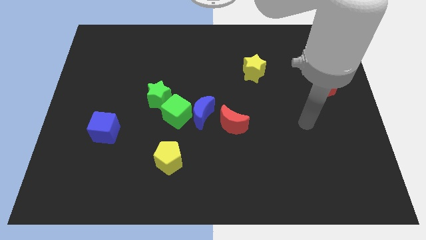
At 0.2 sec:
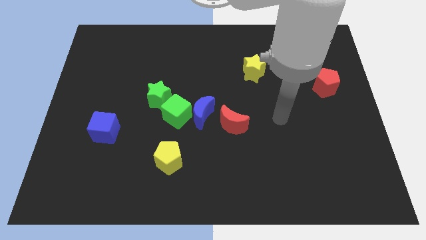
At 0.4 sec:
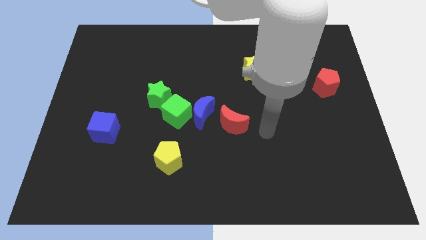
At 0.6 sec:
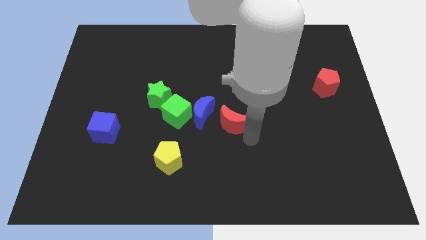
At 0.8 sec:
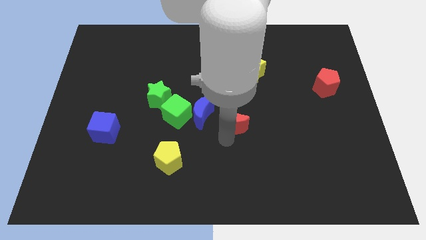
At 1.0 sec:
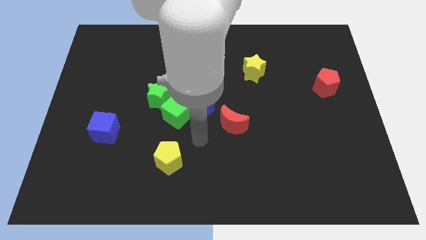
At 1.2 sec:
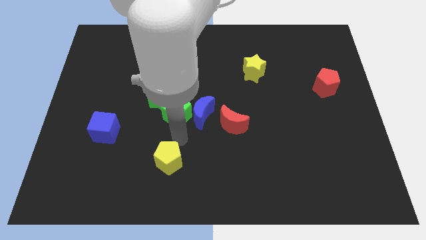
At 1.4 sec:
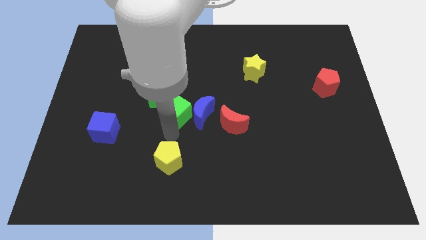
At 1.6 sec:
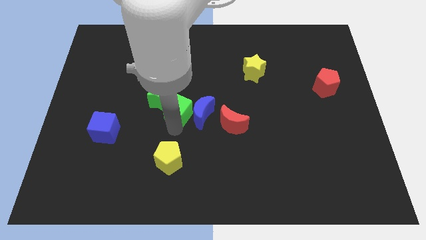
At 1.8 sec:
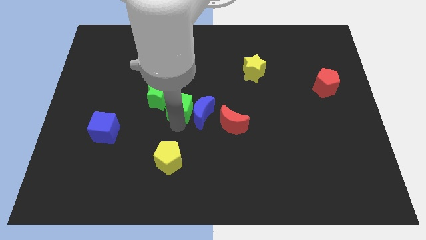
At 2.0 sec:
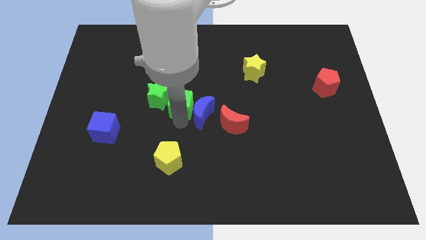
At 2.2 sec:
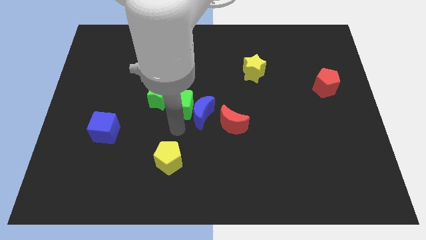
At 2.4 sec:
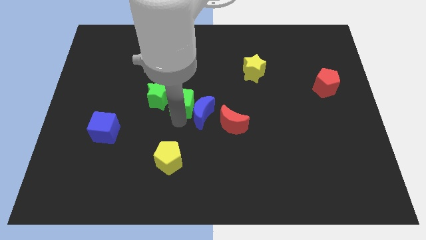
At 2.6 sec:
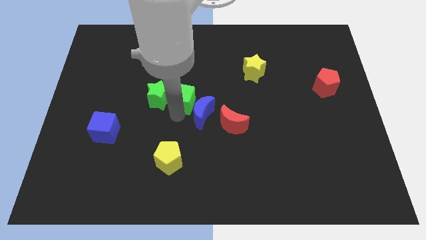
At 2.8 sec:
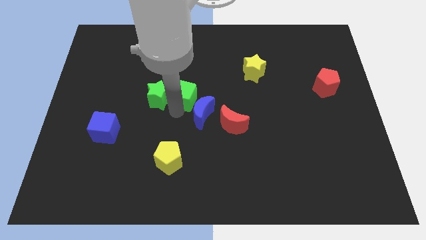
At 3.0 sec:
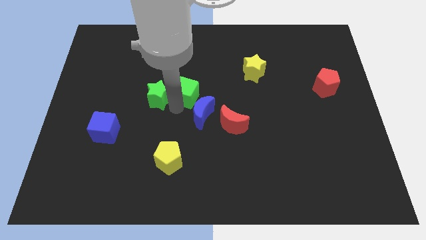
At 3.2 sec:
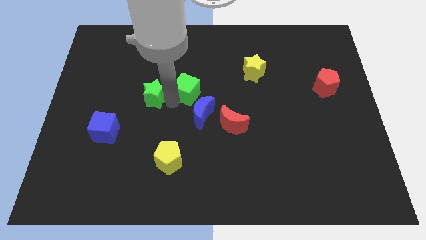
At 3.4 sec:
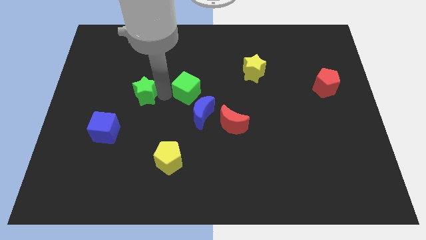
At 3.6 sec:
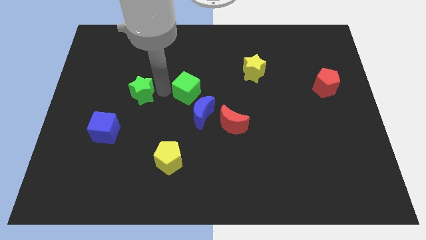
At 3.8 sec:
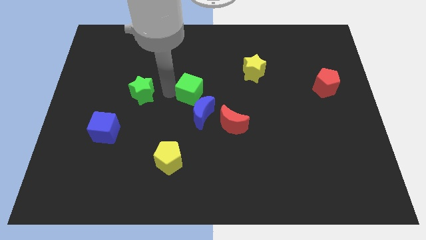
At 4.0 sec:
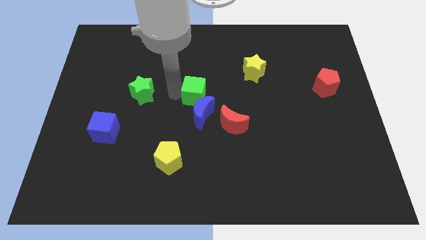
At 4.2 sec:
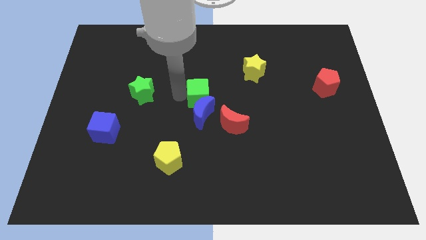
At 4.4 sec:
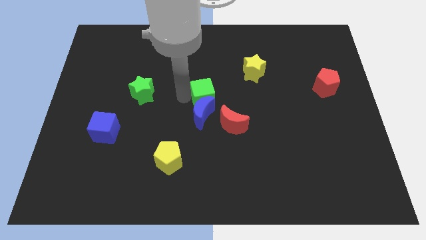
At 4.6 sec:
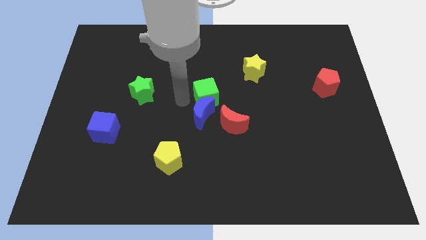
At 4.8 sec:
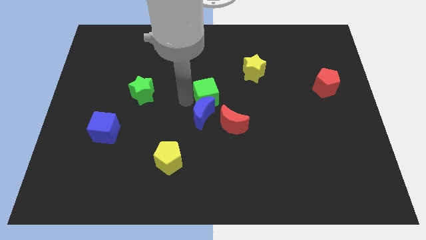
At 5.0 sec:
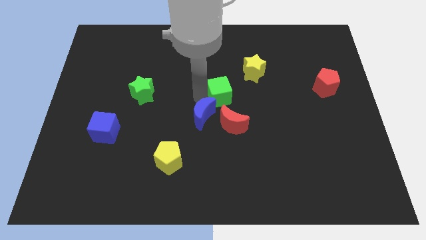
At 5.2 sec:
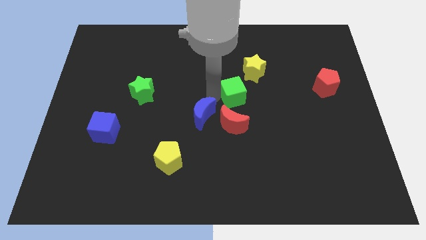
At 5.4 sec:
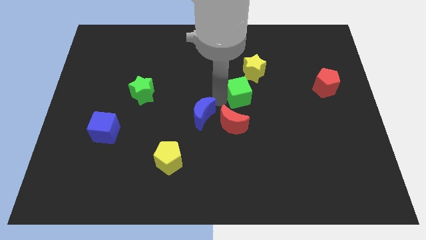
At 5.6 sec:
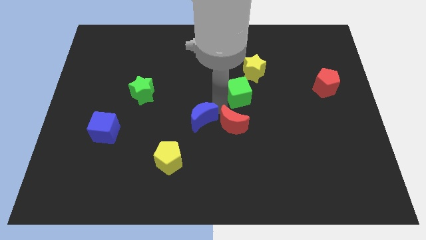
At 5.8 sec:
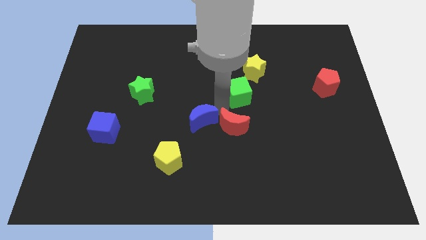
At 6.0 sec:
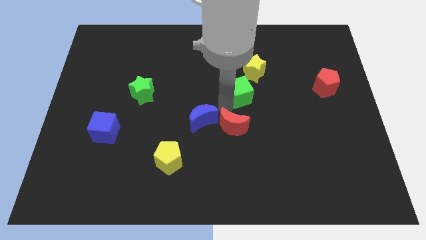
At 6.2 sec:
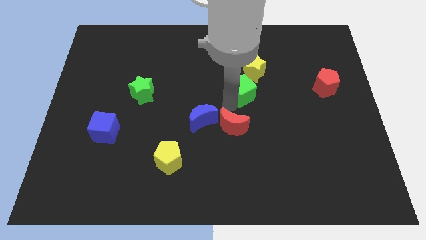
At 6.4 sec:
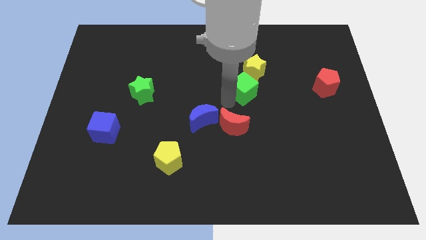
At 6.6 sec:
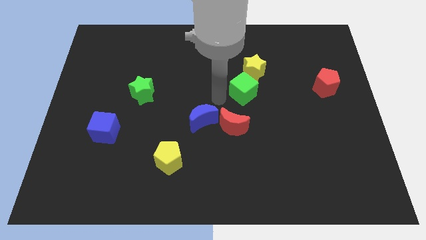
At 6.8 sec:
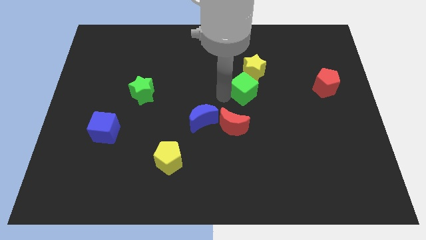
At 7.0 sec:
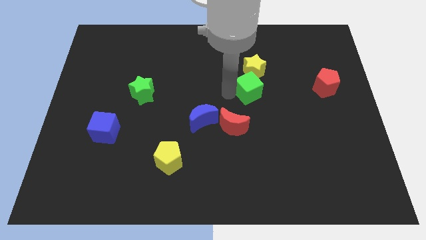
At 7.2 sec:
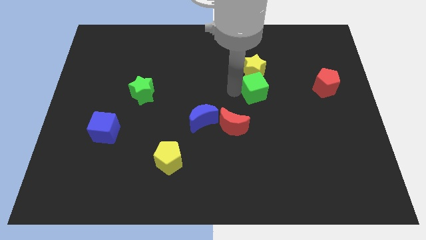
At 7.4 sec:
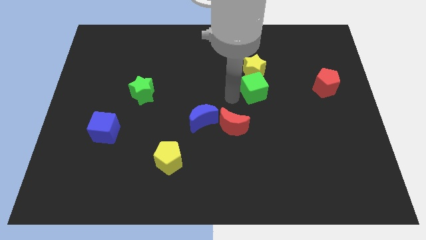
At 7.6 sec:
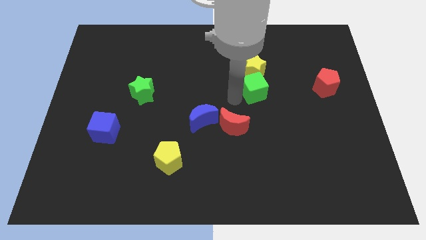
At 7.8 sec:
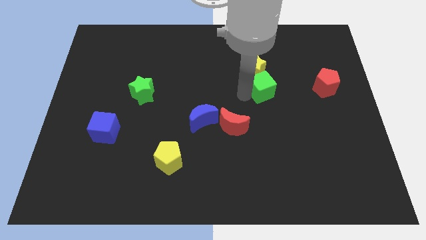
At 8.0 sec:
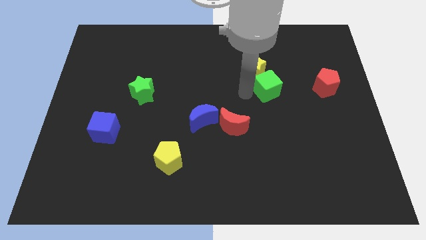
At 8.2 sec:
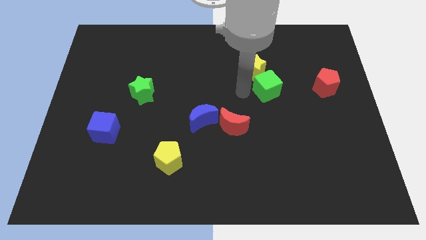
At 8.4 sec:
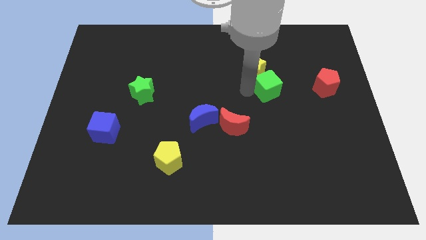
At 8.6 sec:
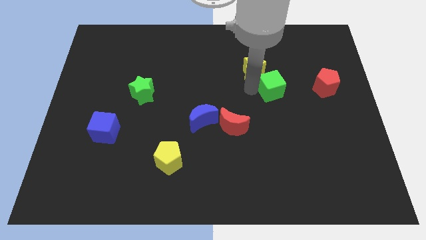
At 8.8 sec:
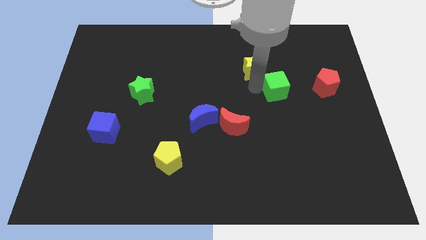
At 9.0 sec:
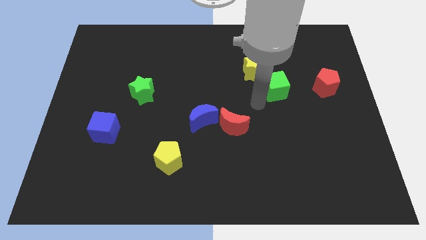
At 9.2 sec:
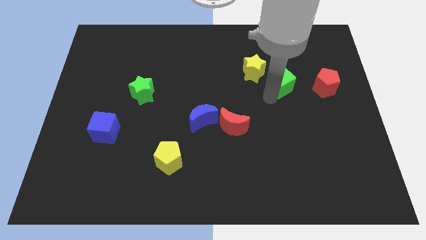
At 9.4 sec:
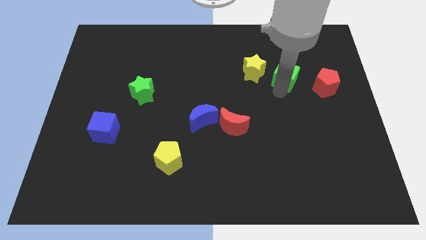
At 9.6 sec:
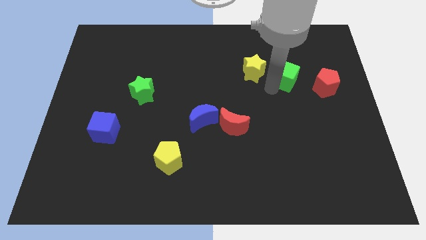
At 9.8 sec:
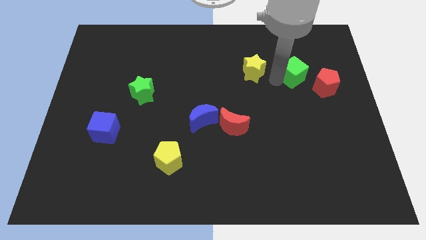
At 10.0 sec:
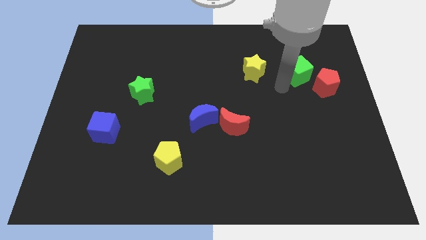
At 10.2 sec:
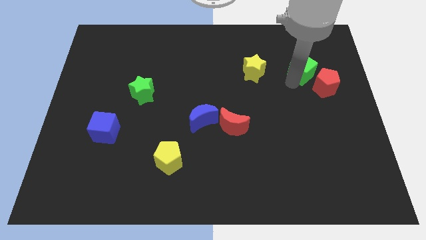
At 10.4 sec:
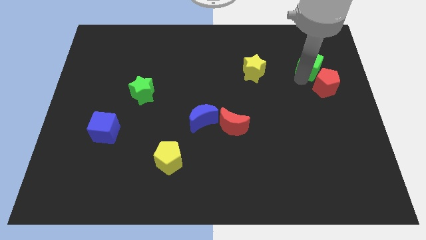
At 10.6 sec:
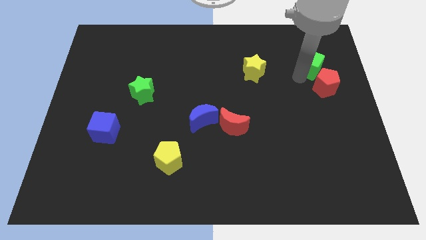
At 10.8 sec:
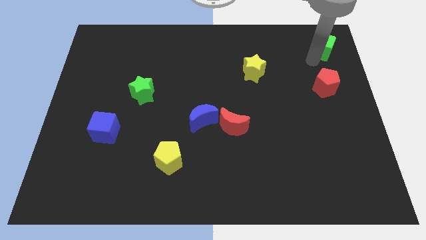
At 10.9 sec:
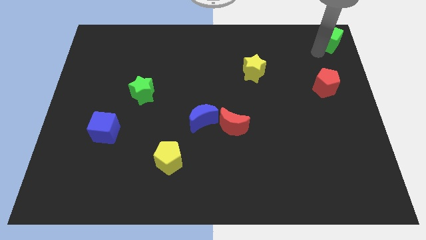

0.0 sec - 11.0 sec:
move the green cube to the top right of the board

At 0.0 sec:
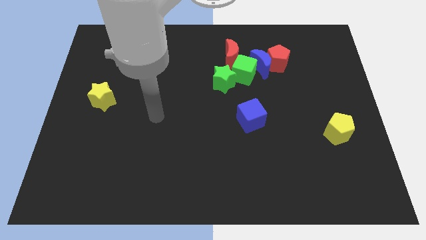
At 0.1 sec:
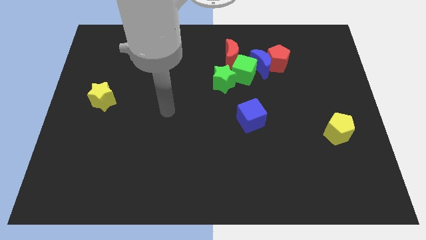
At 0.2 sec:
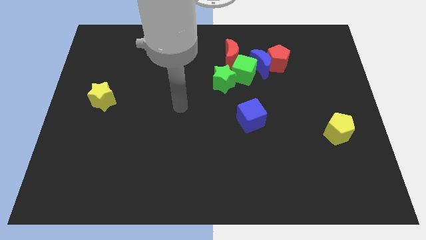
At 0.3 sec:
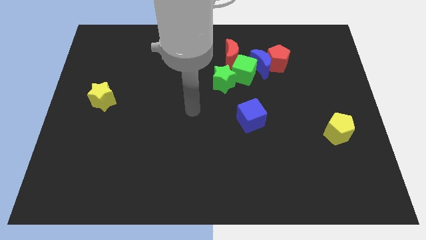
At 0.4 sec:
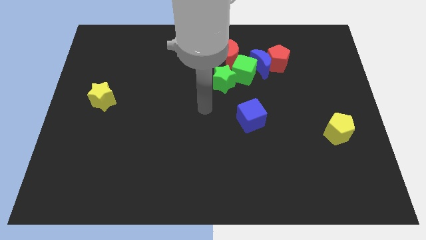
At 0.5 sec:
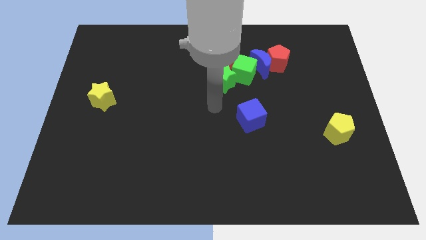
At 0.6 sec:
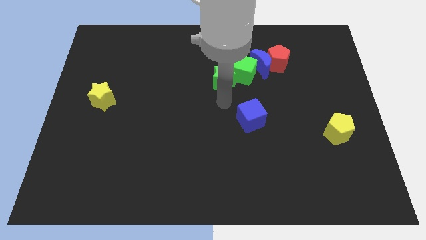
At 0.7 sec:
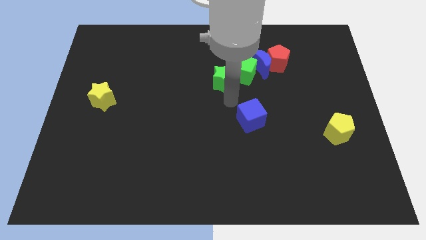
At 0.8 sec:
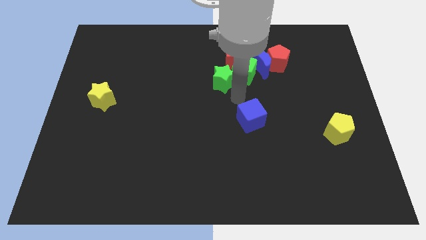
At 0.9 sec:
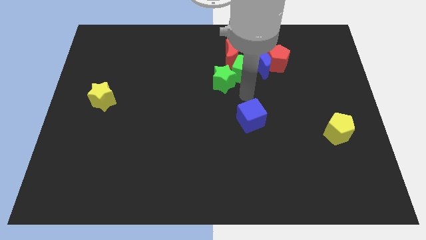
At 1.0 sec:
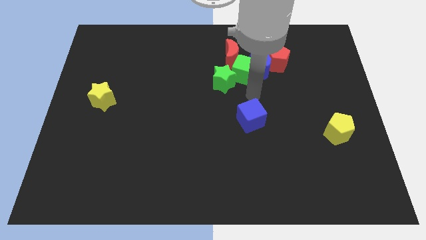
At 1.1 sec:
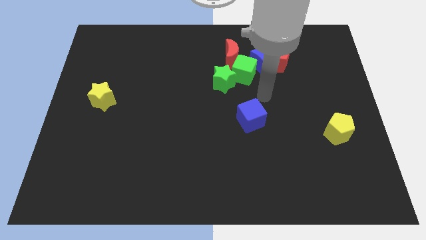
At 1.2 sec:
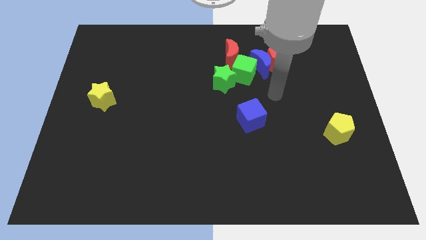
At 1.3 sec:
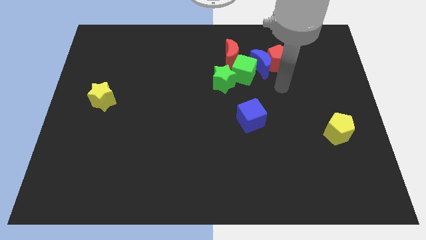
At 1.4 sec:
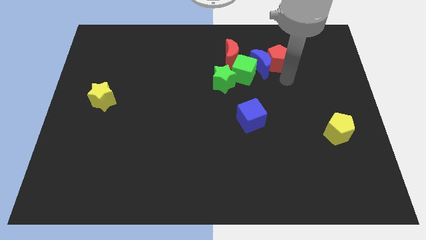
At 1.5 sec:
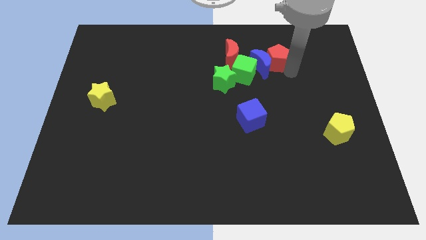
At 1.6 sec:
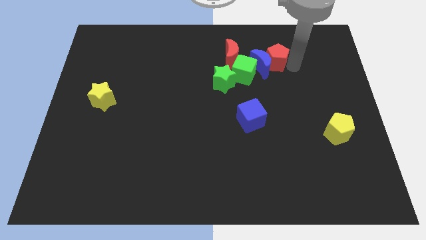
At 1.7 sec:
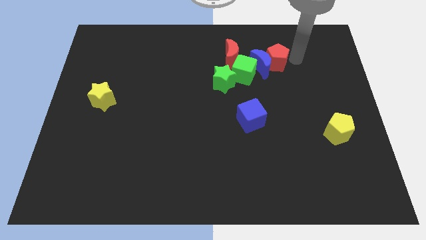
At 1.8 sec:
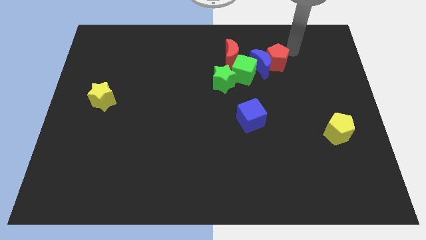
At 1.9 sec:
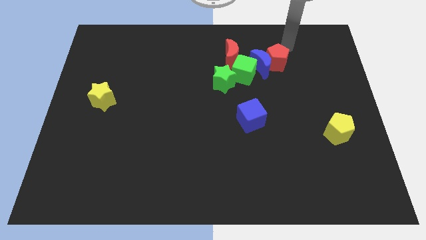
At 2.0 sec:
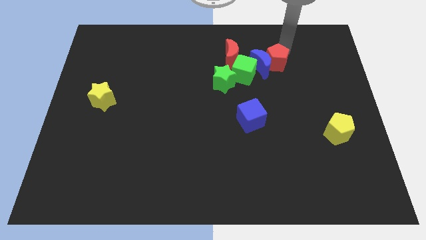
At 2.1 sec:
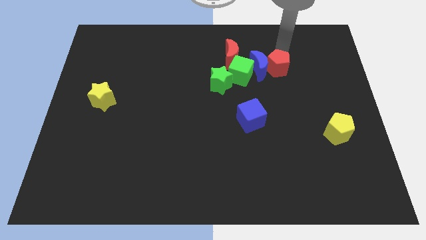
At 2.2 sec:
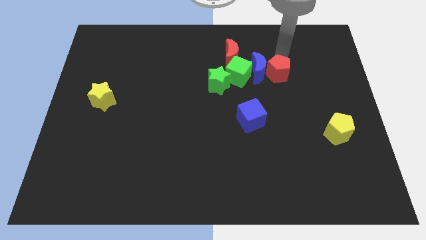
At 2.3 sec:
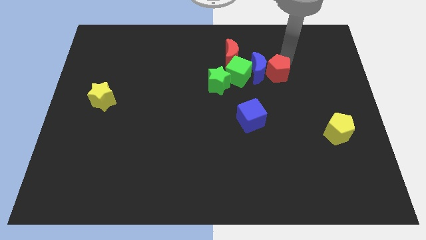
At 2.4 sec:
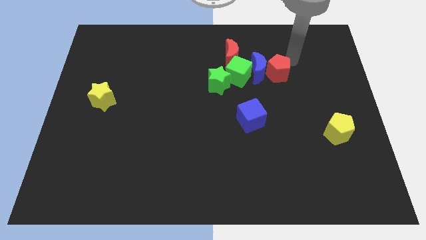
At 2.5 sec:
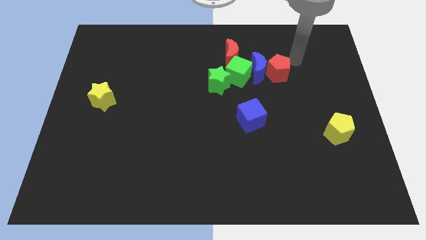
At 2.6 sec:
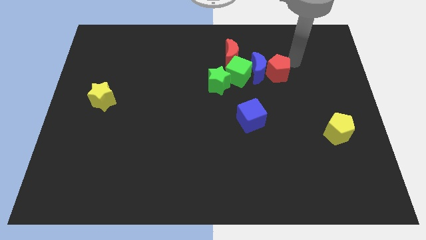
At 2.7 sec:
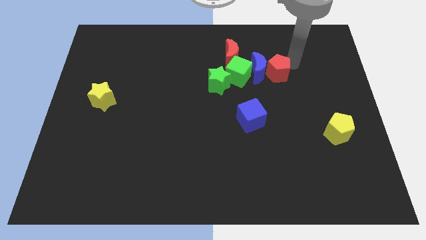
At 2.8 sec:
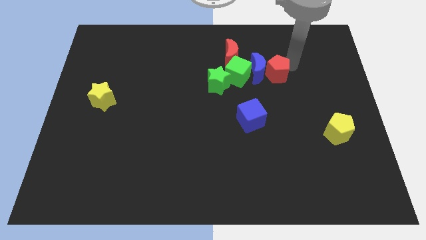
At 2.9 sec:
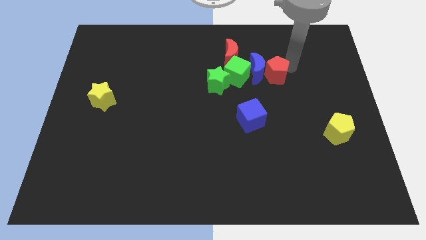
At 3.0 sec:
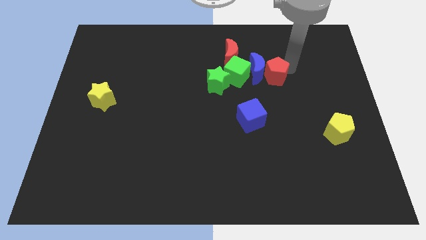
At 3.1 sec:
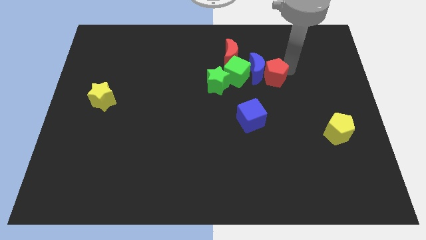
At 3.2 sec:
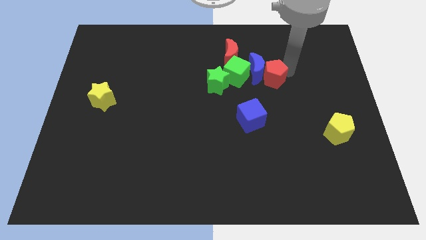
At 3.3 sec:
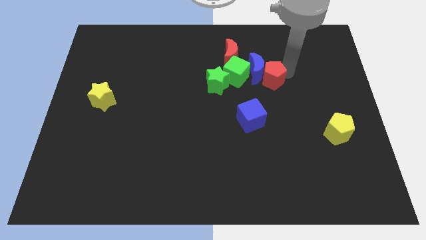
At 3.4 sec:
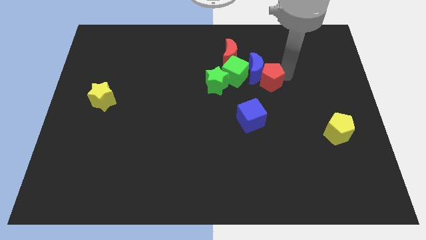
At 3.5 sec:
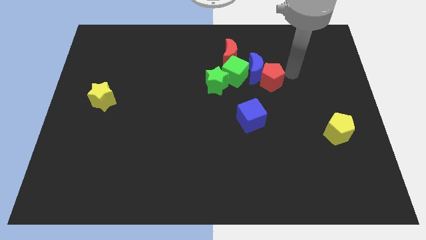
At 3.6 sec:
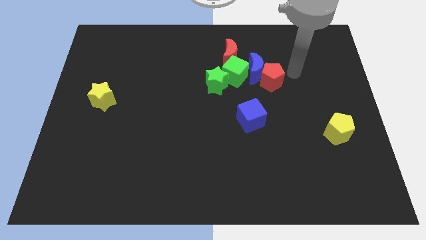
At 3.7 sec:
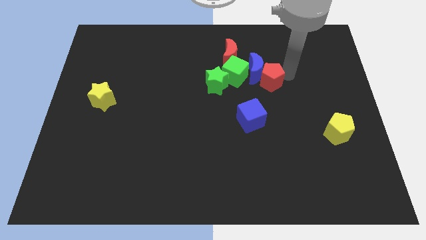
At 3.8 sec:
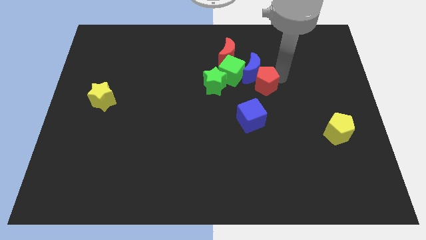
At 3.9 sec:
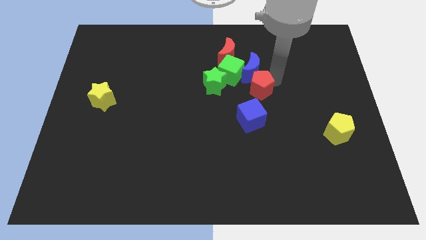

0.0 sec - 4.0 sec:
move the red pentagon to the center of the board
